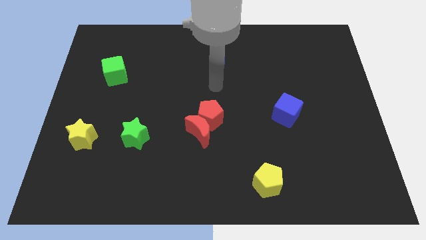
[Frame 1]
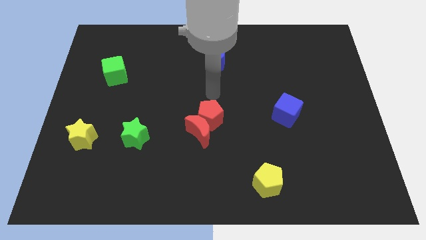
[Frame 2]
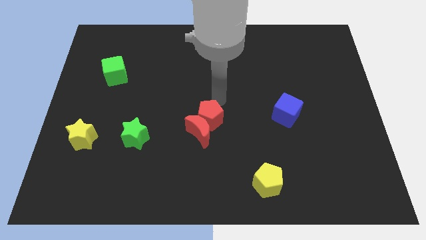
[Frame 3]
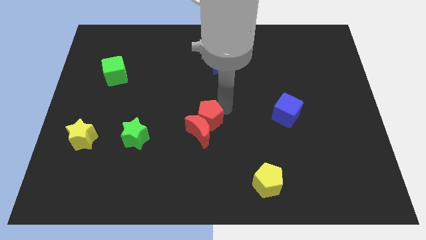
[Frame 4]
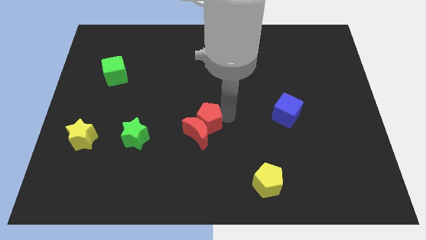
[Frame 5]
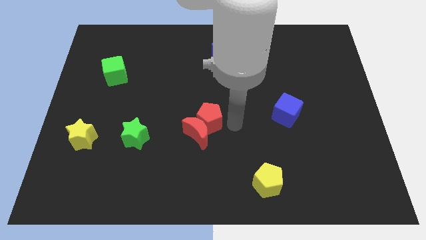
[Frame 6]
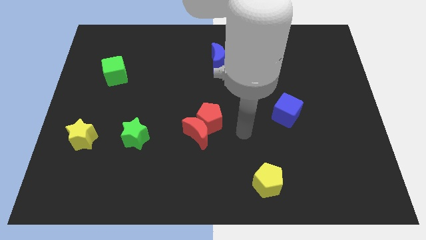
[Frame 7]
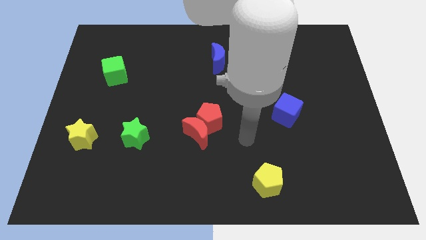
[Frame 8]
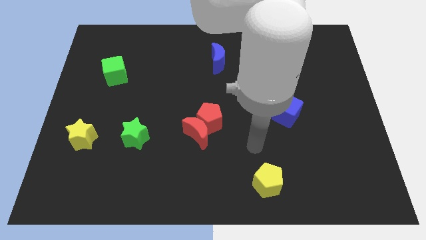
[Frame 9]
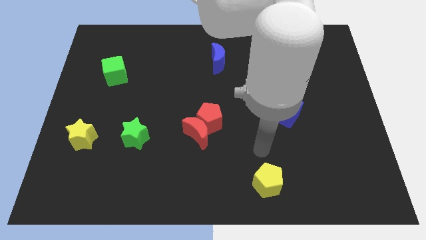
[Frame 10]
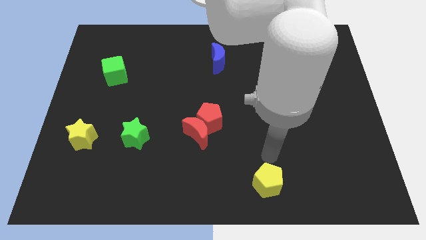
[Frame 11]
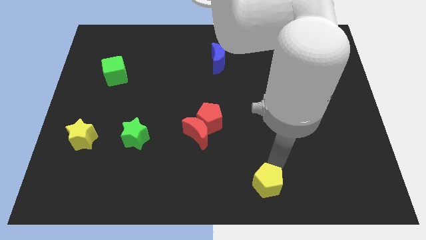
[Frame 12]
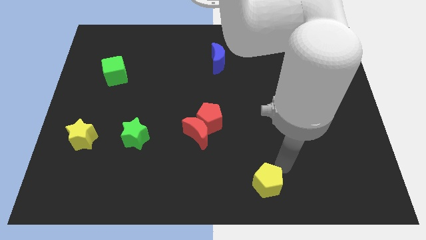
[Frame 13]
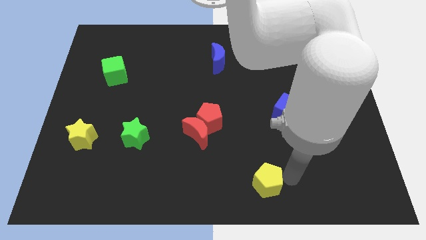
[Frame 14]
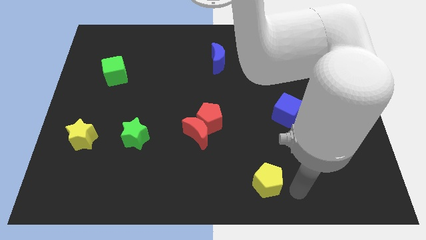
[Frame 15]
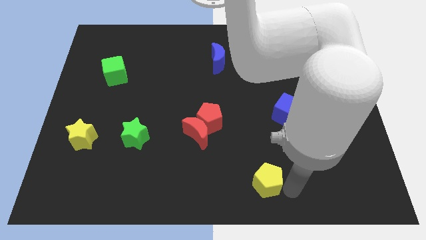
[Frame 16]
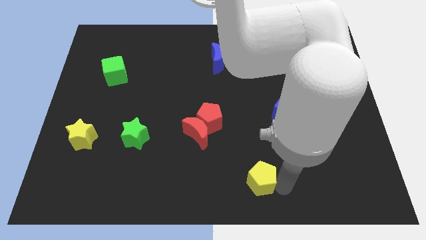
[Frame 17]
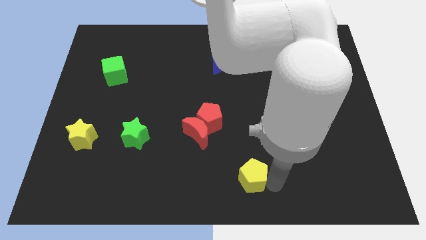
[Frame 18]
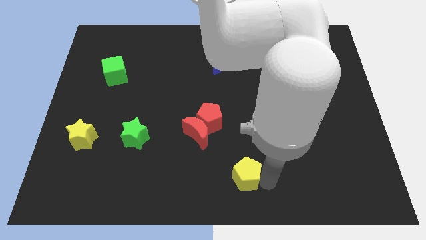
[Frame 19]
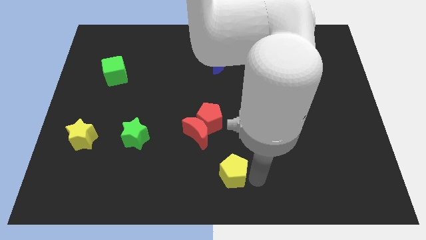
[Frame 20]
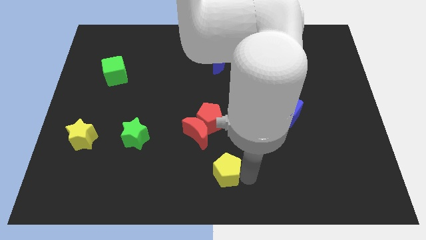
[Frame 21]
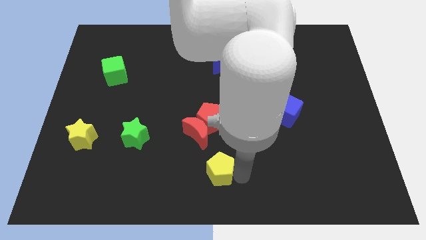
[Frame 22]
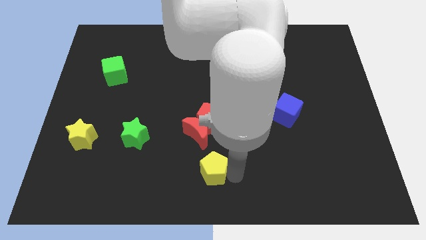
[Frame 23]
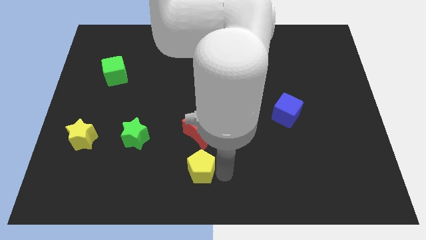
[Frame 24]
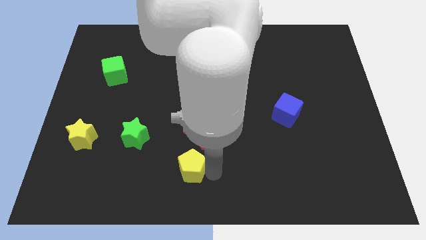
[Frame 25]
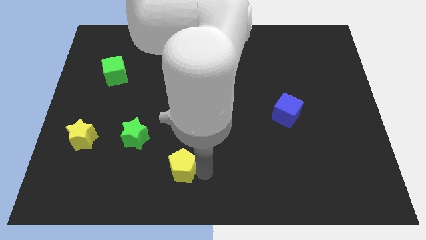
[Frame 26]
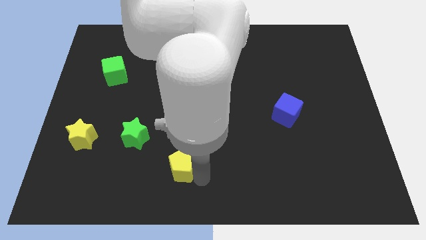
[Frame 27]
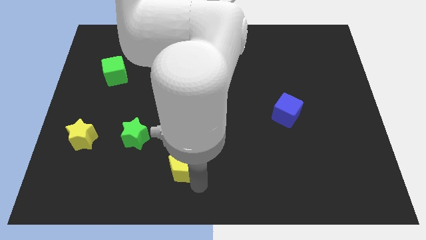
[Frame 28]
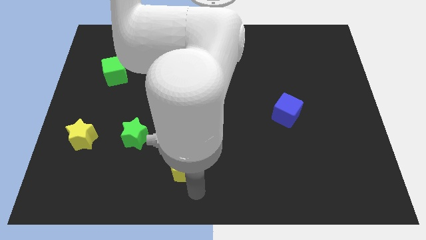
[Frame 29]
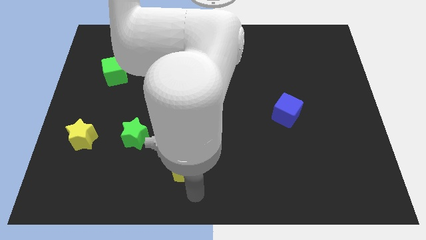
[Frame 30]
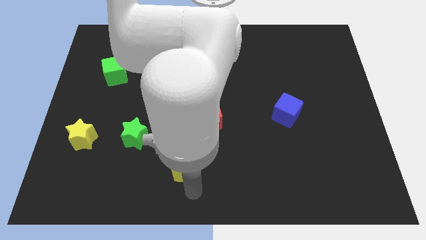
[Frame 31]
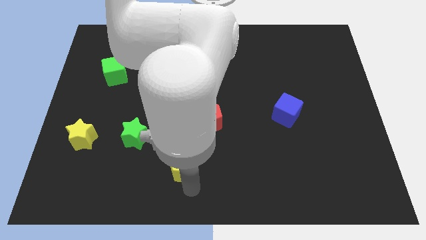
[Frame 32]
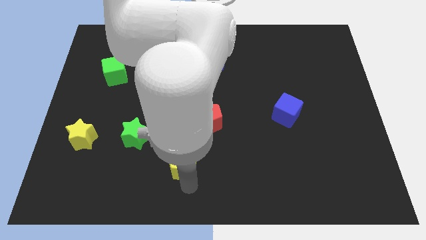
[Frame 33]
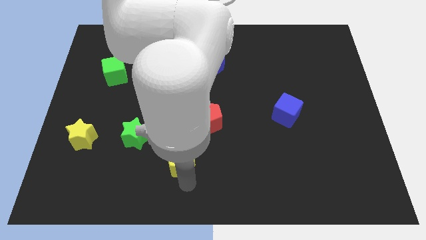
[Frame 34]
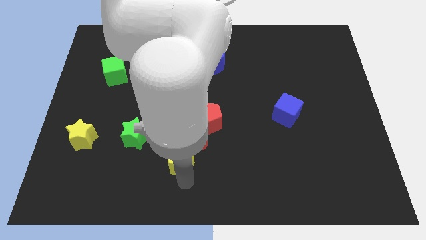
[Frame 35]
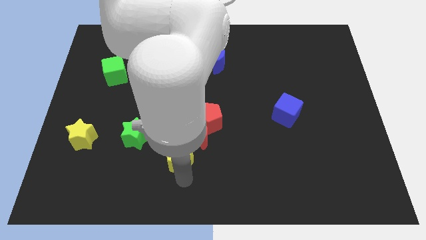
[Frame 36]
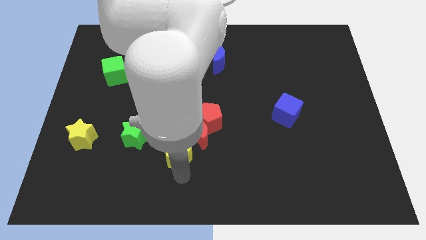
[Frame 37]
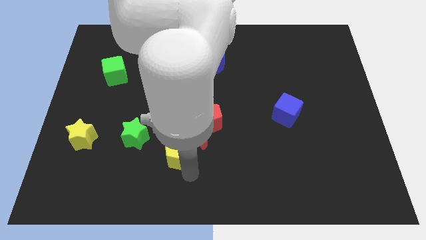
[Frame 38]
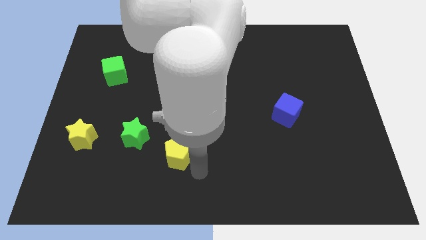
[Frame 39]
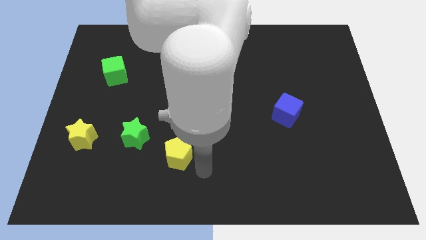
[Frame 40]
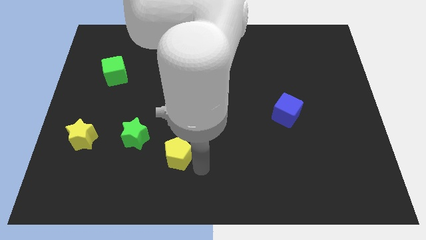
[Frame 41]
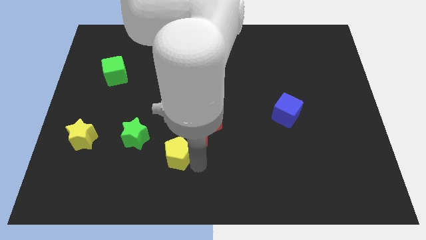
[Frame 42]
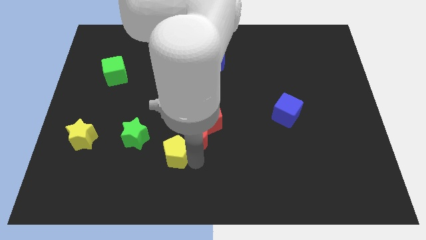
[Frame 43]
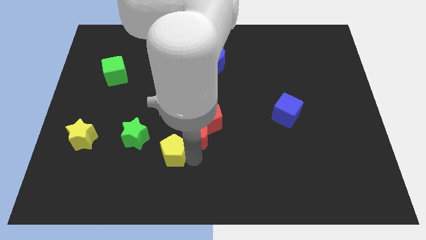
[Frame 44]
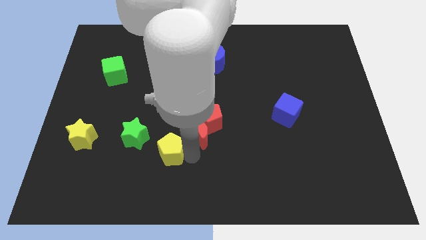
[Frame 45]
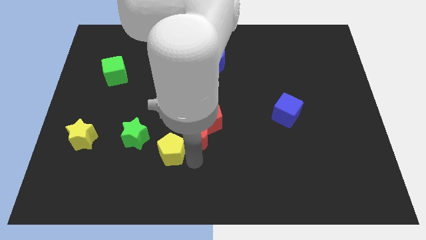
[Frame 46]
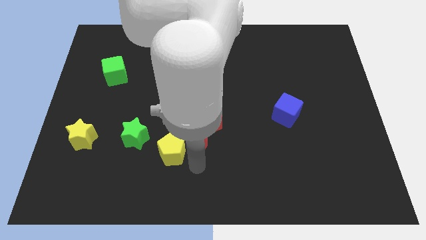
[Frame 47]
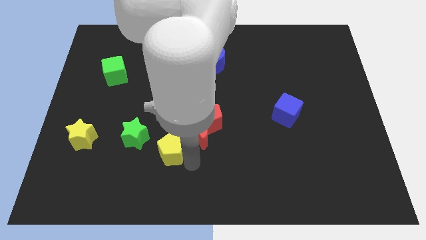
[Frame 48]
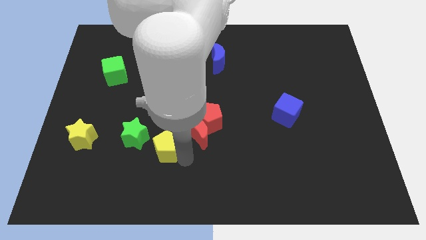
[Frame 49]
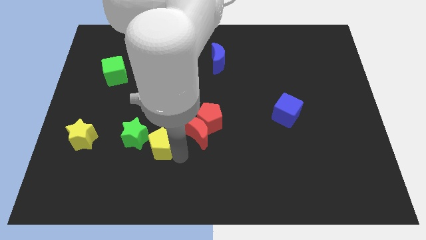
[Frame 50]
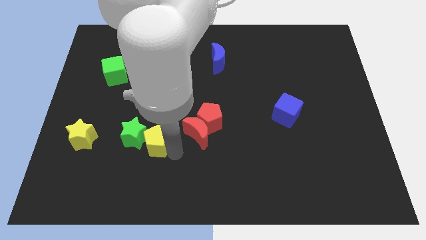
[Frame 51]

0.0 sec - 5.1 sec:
put the yellow pentagon to the green star

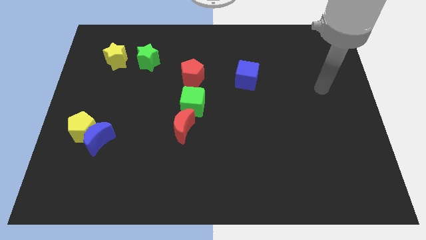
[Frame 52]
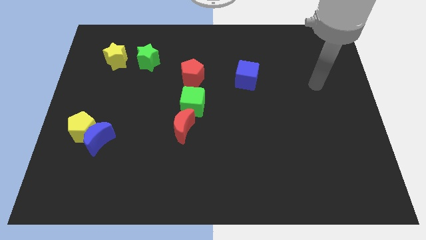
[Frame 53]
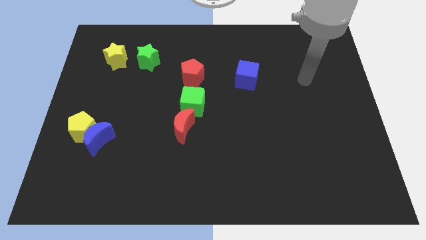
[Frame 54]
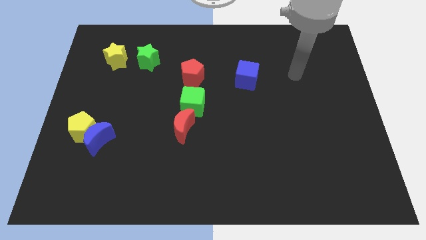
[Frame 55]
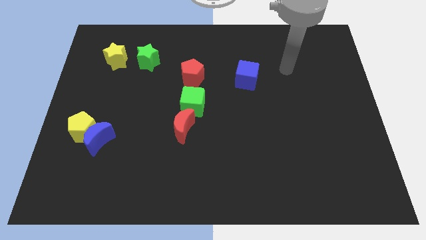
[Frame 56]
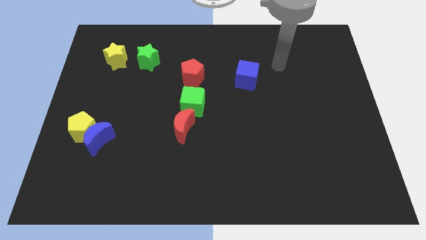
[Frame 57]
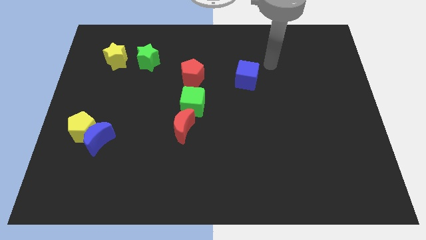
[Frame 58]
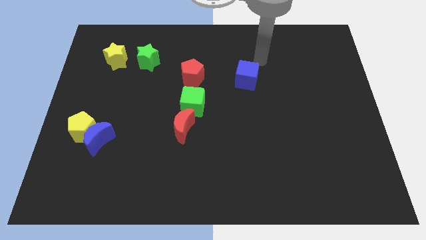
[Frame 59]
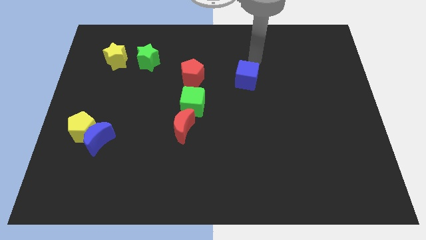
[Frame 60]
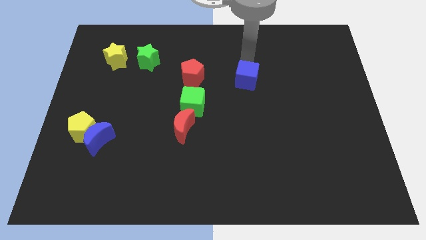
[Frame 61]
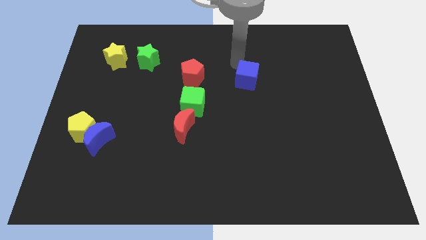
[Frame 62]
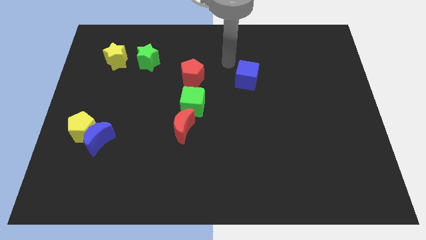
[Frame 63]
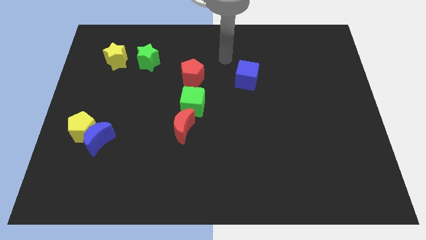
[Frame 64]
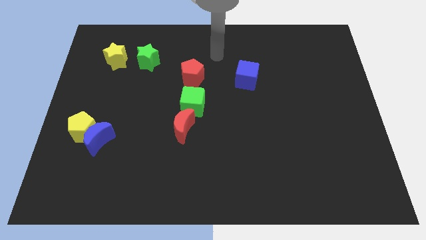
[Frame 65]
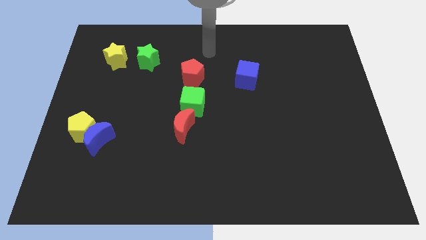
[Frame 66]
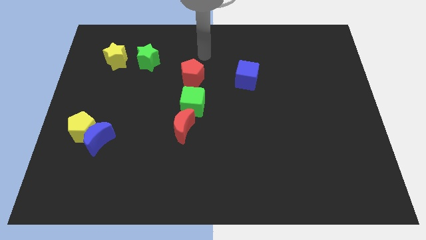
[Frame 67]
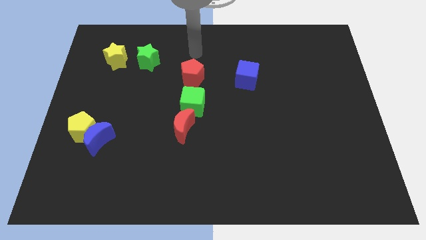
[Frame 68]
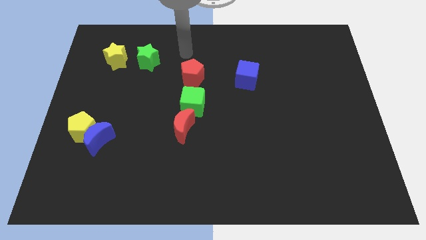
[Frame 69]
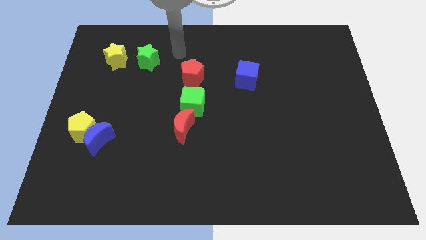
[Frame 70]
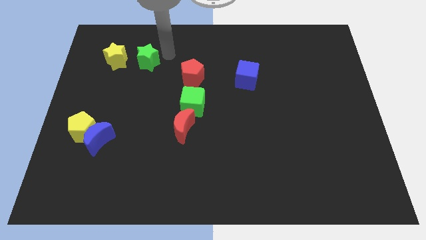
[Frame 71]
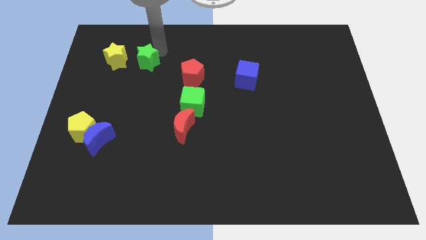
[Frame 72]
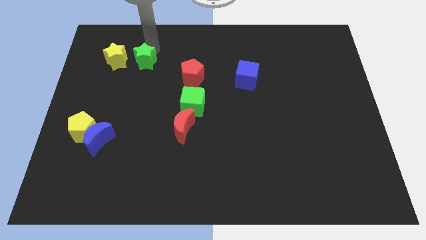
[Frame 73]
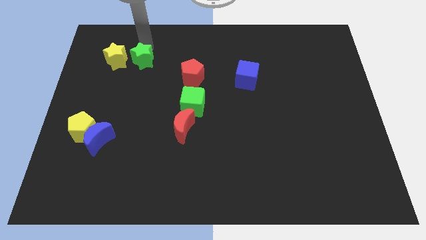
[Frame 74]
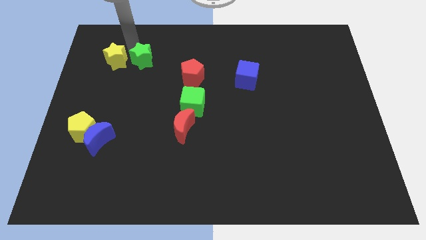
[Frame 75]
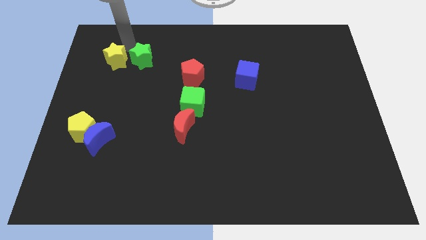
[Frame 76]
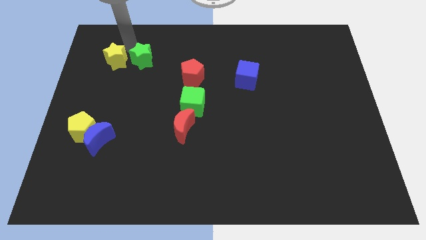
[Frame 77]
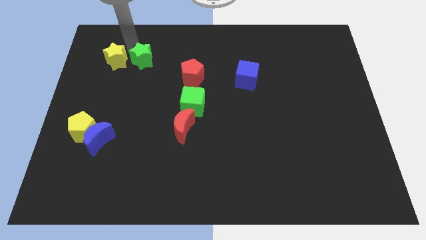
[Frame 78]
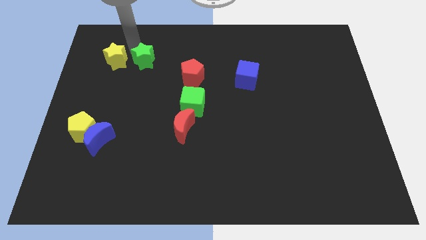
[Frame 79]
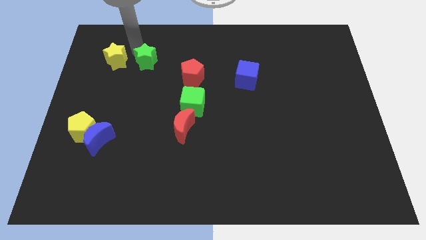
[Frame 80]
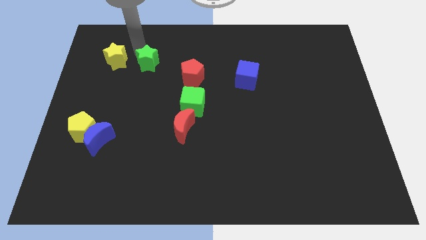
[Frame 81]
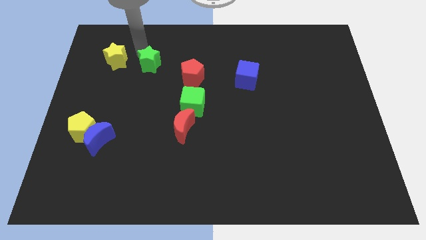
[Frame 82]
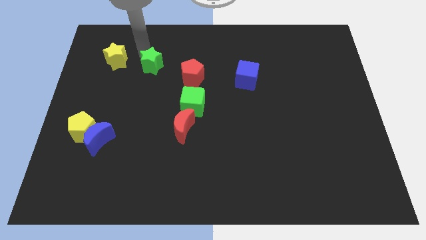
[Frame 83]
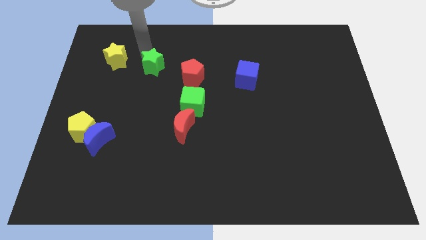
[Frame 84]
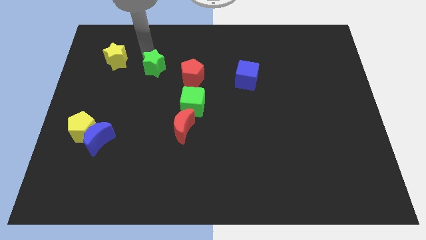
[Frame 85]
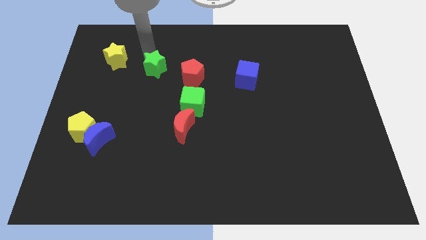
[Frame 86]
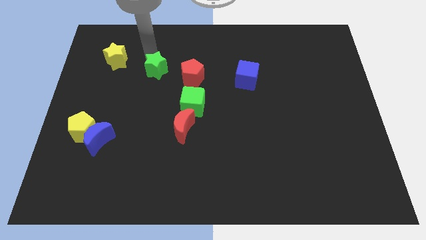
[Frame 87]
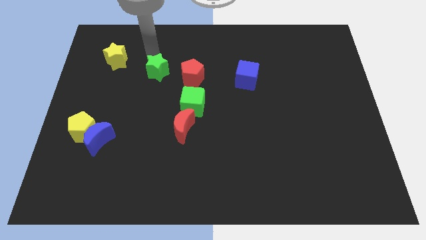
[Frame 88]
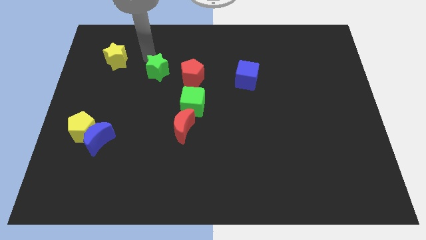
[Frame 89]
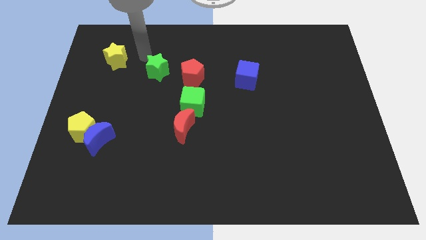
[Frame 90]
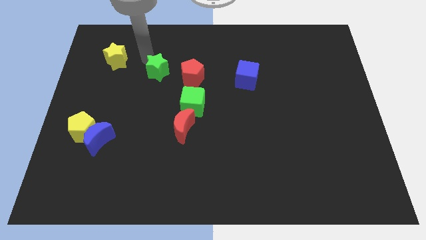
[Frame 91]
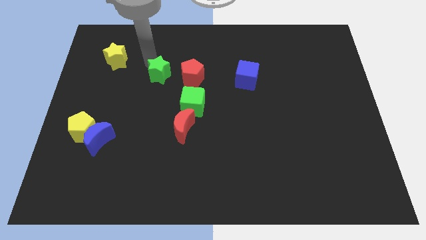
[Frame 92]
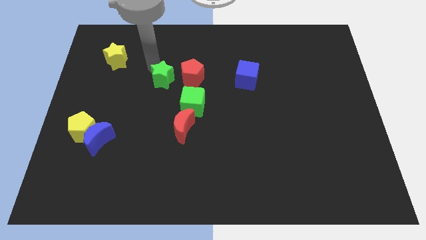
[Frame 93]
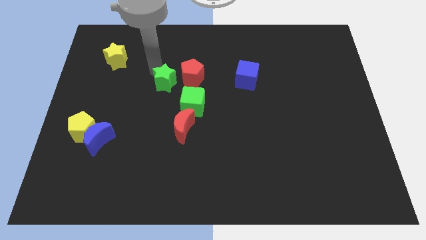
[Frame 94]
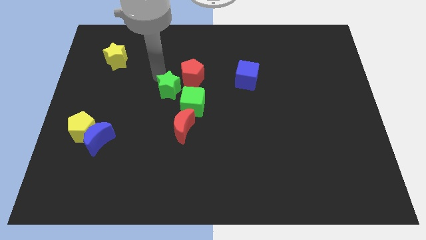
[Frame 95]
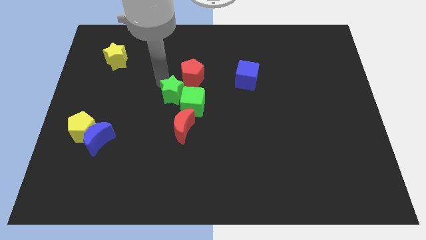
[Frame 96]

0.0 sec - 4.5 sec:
push the green star towards the green cube
